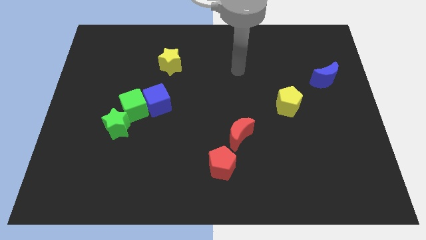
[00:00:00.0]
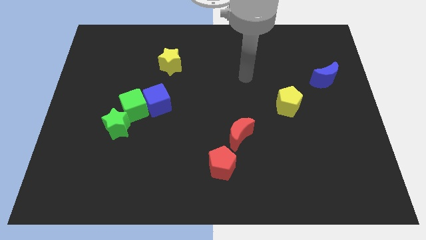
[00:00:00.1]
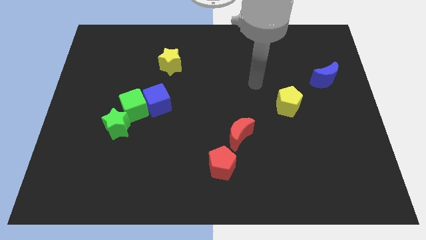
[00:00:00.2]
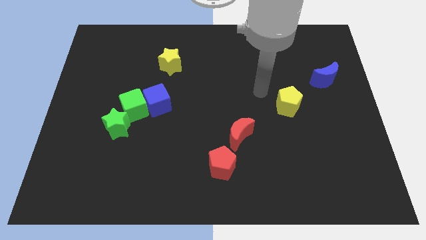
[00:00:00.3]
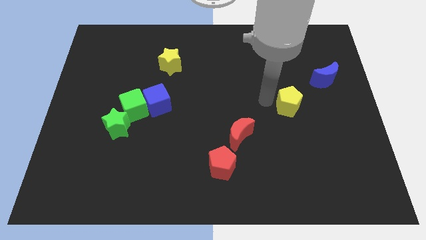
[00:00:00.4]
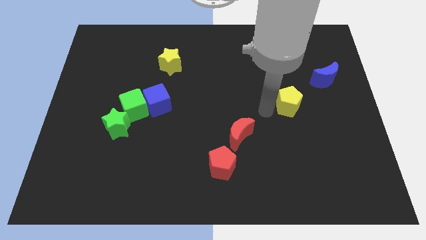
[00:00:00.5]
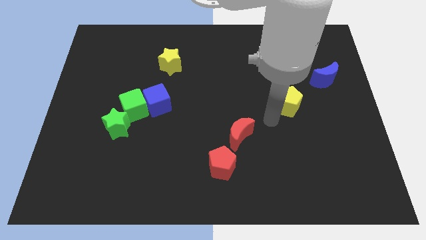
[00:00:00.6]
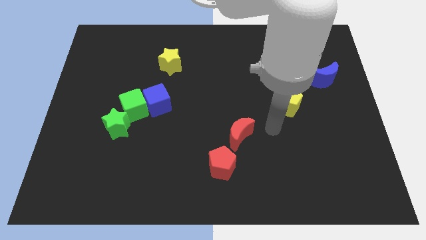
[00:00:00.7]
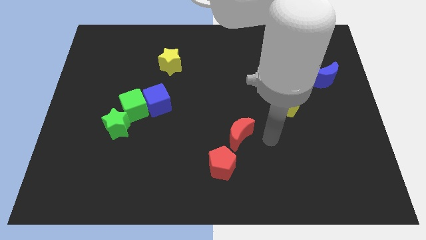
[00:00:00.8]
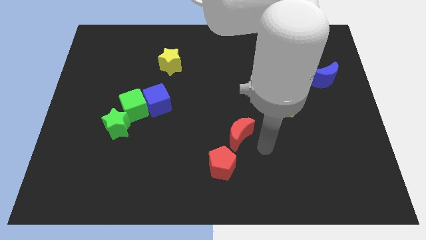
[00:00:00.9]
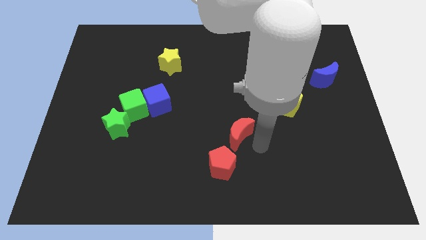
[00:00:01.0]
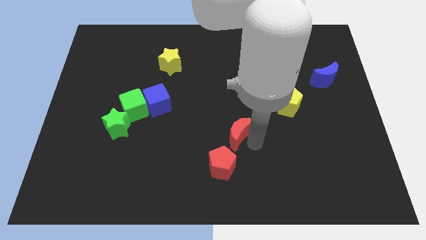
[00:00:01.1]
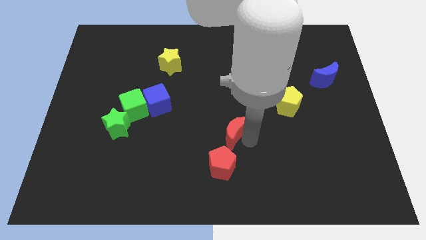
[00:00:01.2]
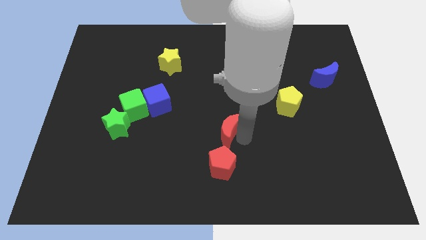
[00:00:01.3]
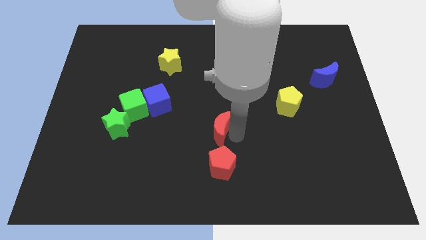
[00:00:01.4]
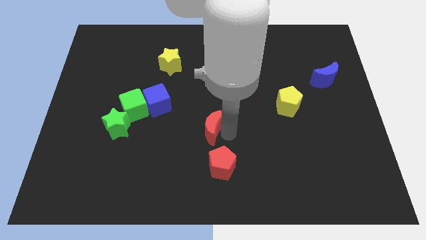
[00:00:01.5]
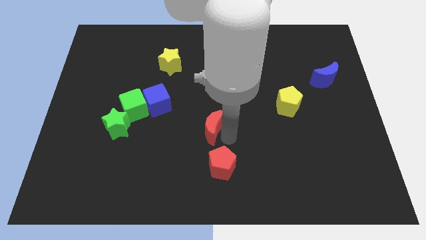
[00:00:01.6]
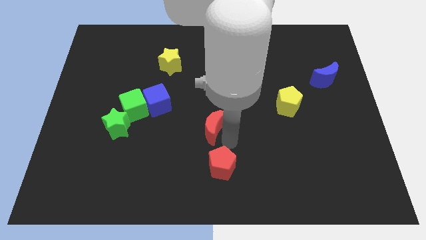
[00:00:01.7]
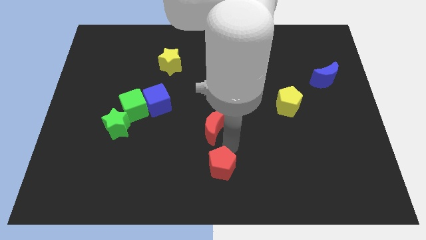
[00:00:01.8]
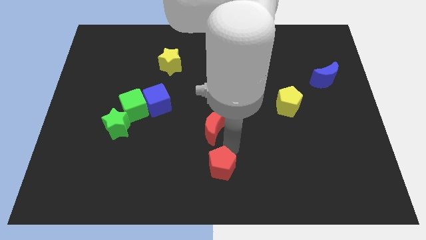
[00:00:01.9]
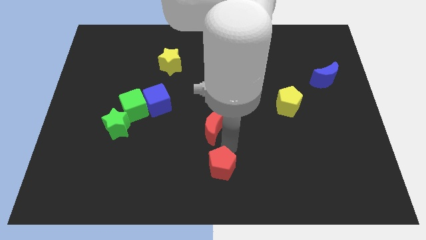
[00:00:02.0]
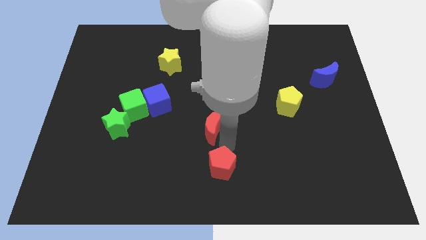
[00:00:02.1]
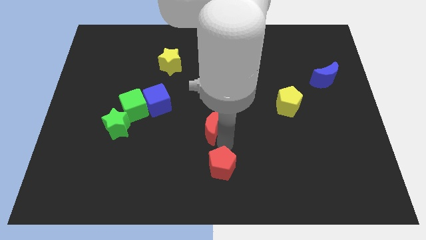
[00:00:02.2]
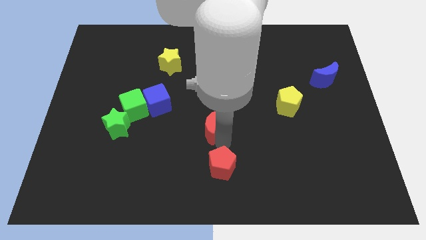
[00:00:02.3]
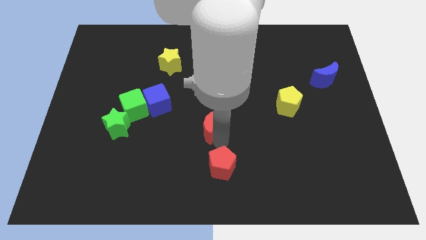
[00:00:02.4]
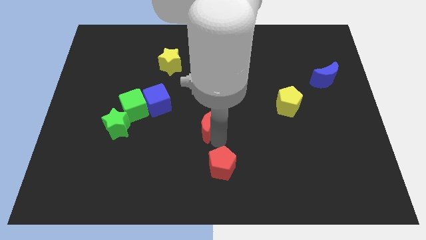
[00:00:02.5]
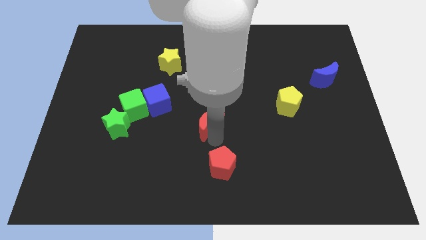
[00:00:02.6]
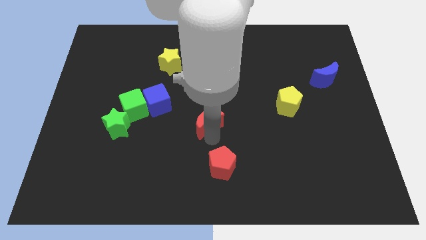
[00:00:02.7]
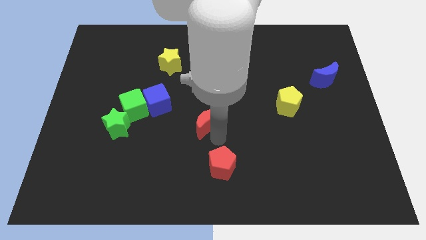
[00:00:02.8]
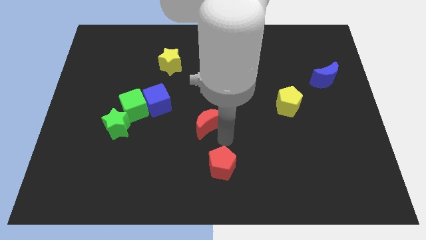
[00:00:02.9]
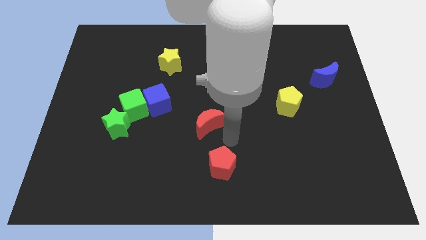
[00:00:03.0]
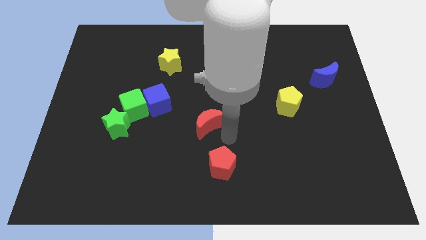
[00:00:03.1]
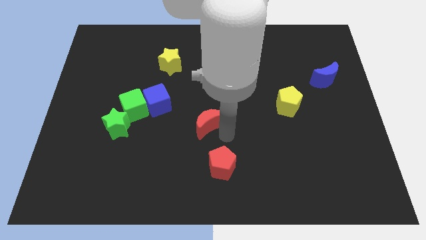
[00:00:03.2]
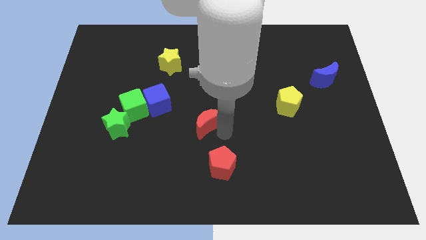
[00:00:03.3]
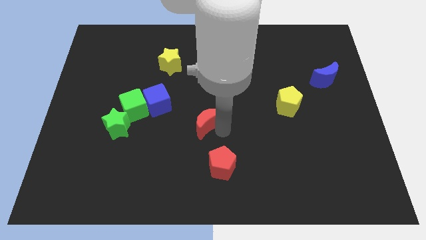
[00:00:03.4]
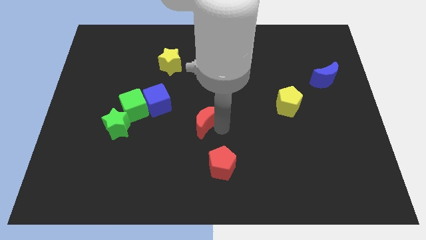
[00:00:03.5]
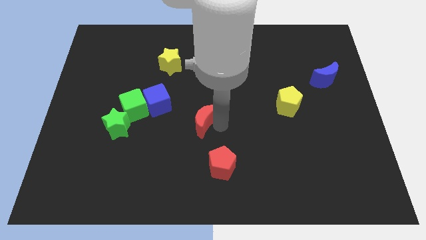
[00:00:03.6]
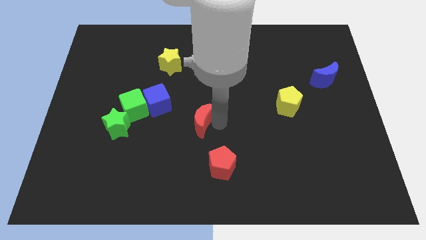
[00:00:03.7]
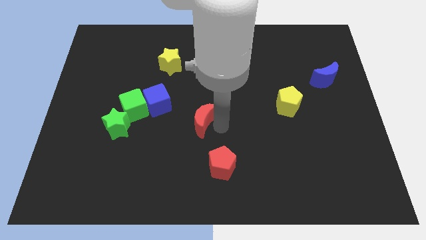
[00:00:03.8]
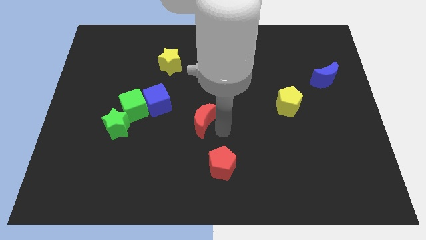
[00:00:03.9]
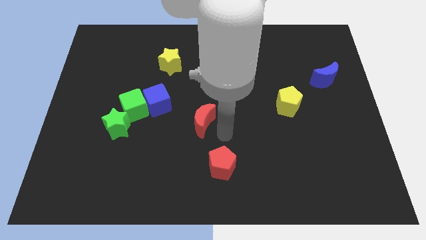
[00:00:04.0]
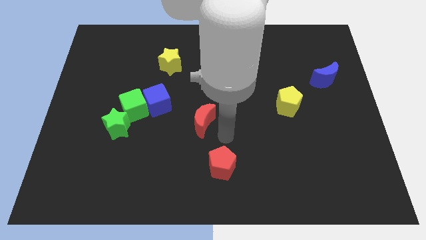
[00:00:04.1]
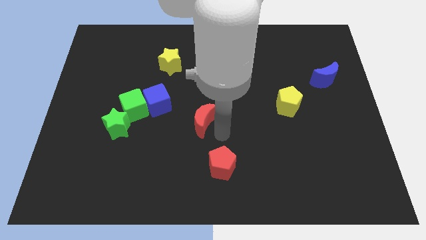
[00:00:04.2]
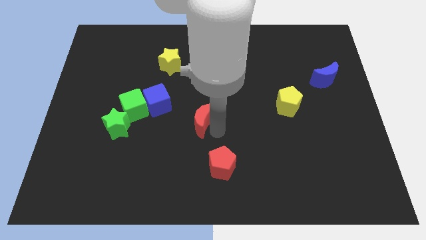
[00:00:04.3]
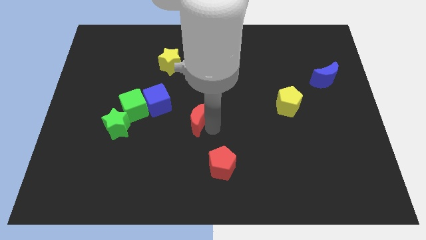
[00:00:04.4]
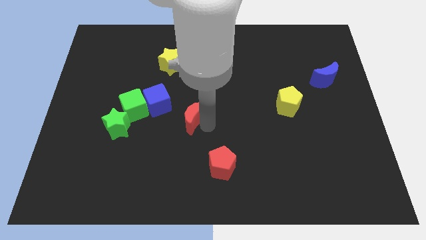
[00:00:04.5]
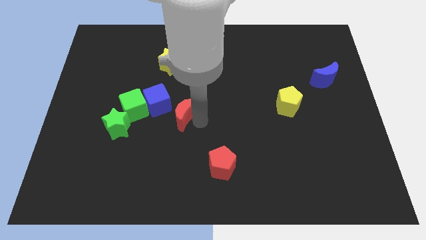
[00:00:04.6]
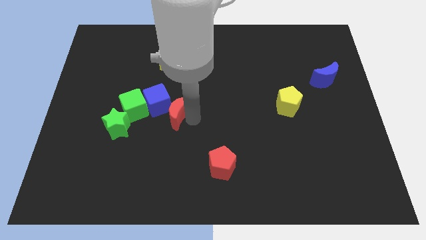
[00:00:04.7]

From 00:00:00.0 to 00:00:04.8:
push the red moon next to the blue cube

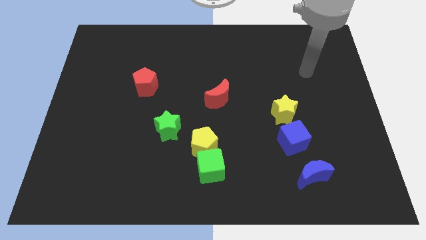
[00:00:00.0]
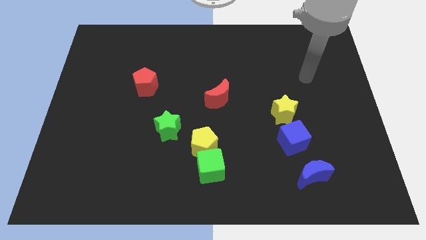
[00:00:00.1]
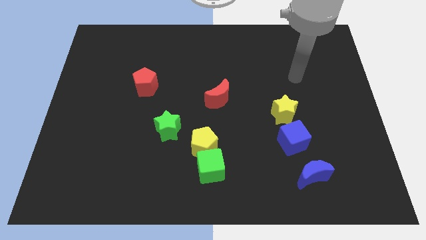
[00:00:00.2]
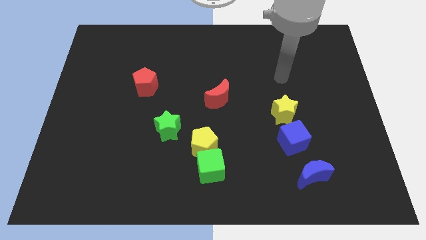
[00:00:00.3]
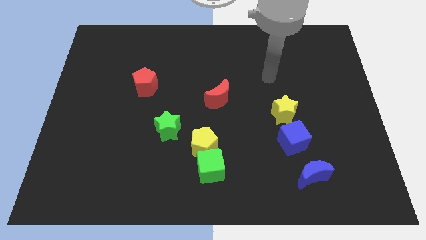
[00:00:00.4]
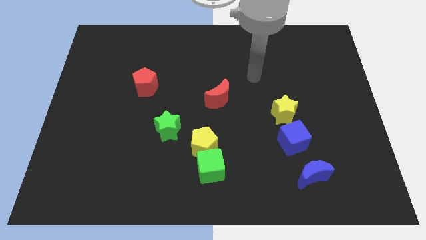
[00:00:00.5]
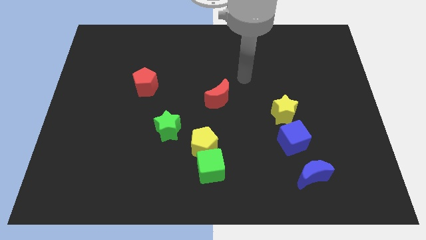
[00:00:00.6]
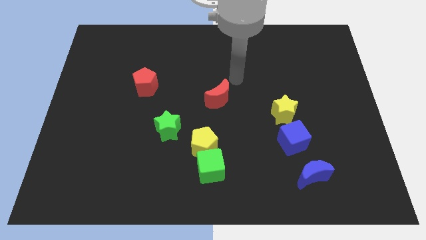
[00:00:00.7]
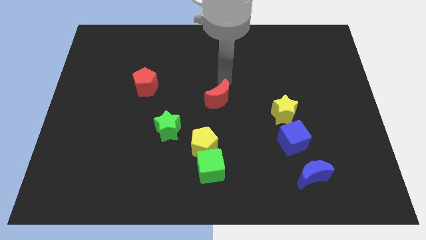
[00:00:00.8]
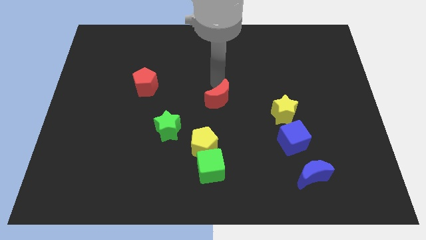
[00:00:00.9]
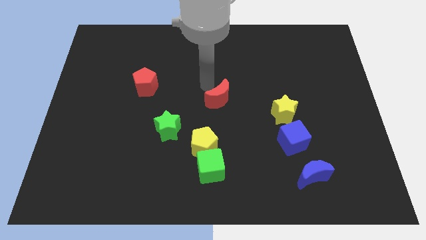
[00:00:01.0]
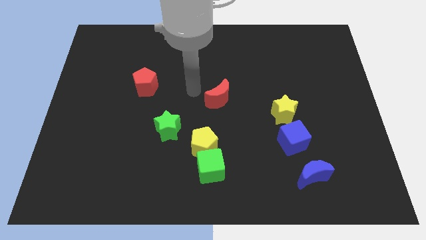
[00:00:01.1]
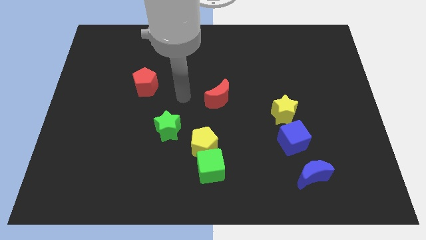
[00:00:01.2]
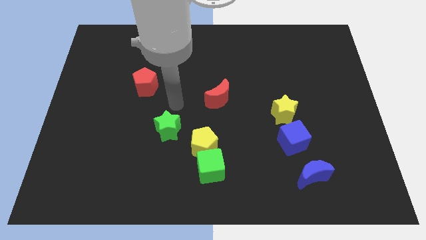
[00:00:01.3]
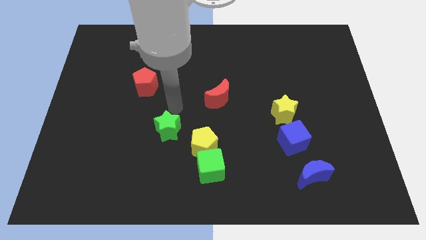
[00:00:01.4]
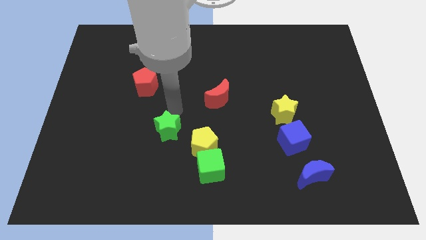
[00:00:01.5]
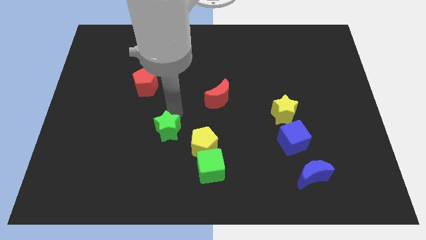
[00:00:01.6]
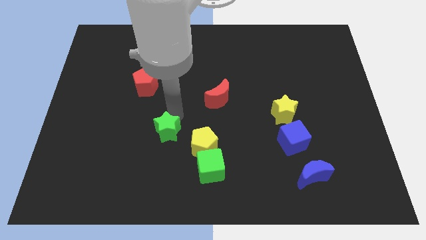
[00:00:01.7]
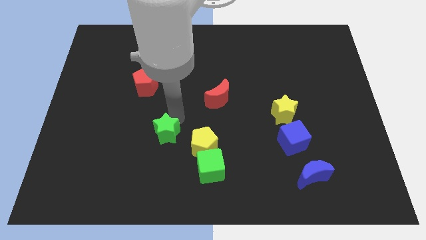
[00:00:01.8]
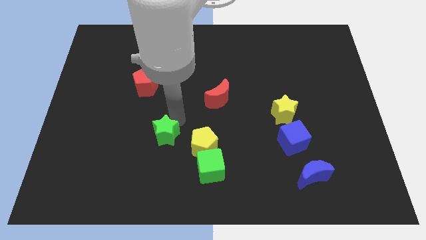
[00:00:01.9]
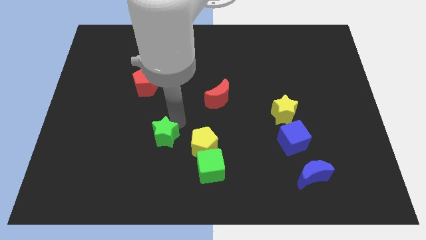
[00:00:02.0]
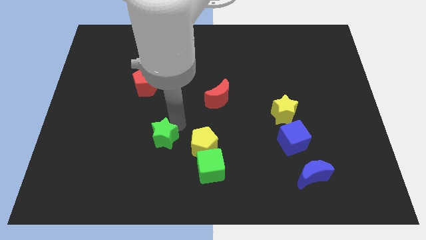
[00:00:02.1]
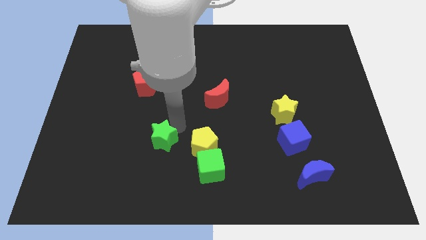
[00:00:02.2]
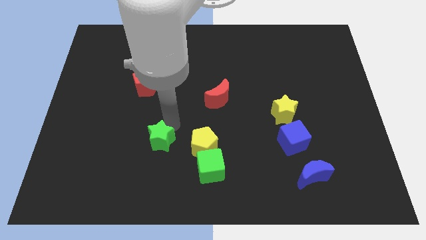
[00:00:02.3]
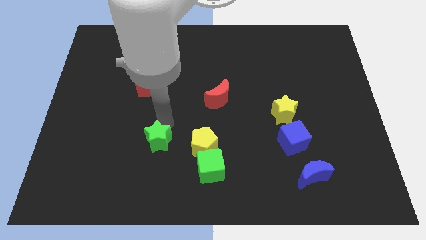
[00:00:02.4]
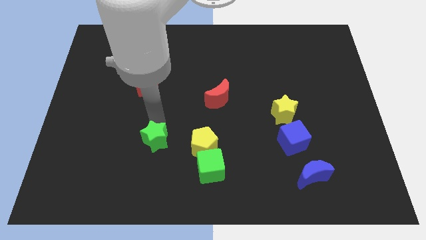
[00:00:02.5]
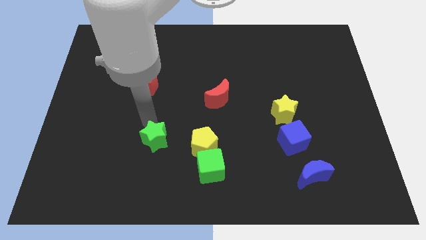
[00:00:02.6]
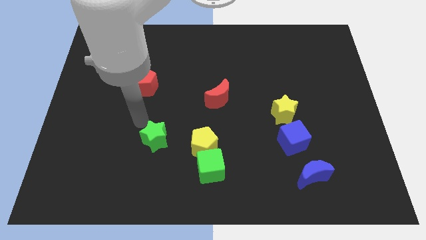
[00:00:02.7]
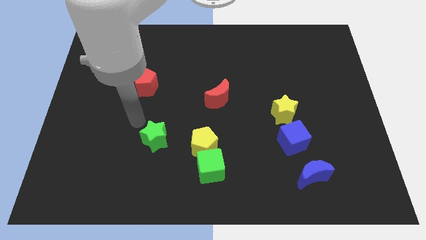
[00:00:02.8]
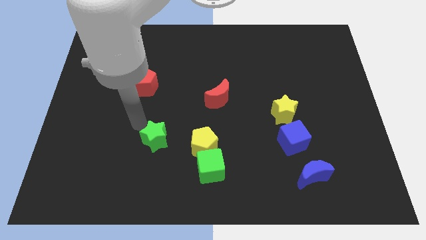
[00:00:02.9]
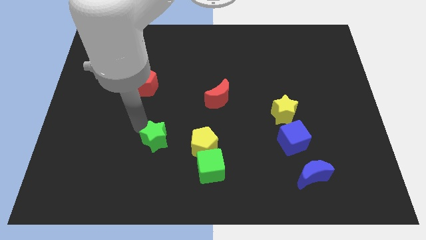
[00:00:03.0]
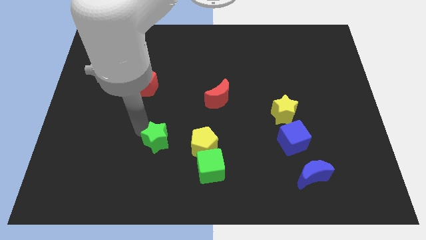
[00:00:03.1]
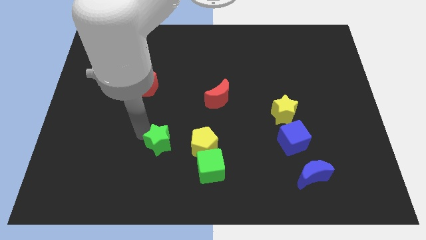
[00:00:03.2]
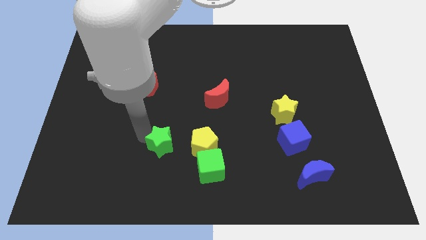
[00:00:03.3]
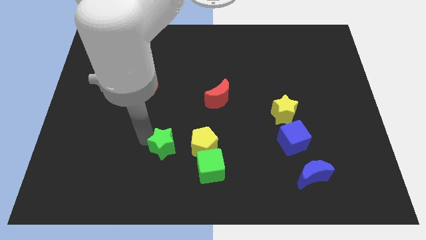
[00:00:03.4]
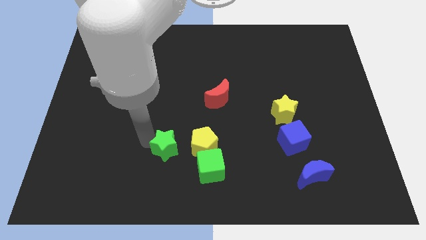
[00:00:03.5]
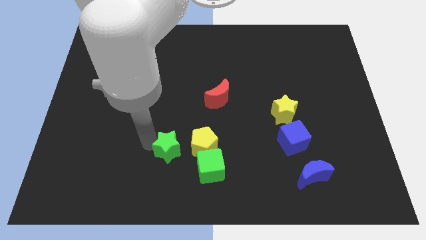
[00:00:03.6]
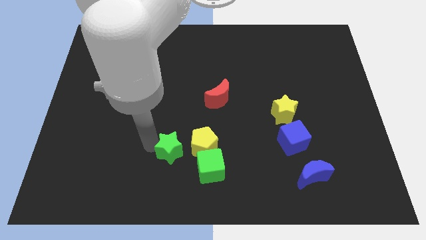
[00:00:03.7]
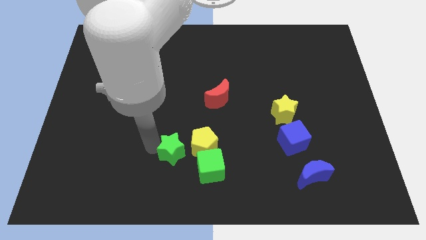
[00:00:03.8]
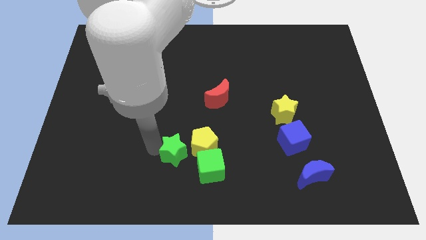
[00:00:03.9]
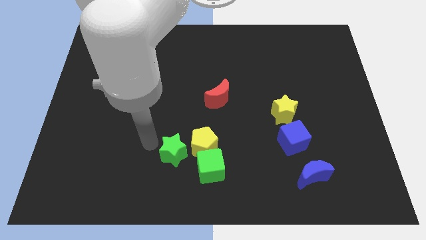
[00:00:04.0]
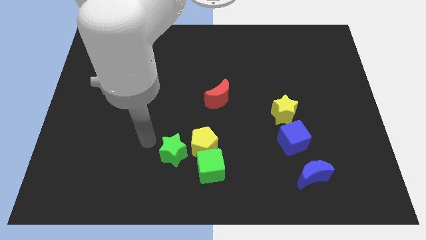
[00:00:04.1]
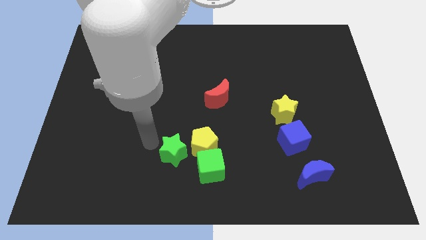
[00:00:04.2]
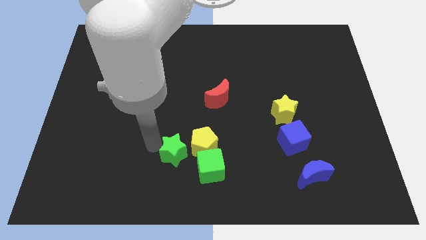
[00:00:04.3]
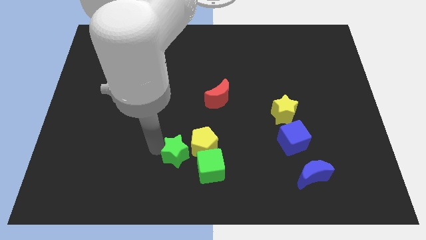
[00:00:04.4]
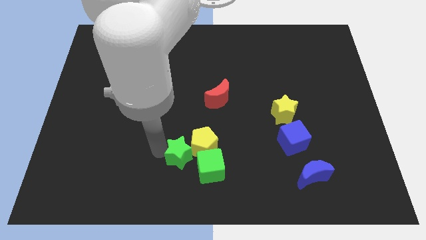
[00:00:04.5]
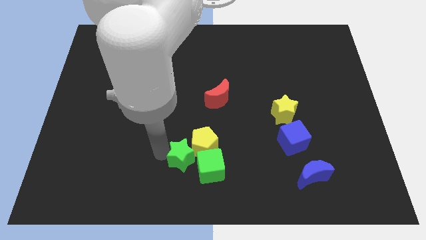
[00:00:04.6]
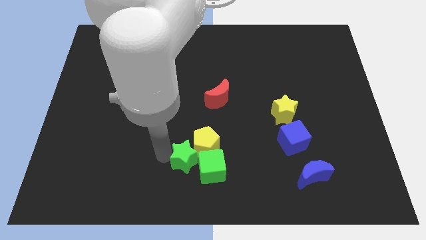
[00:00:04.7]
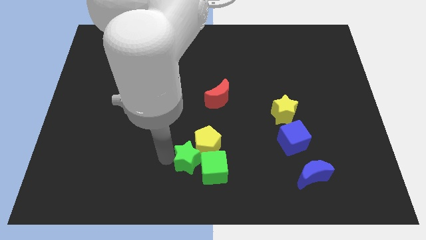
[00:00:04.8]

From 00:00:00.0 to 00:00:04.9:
move the green star towards the green cube
